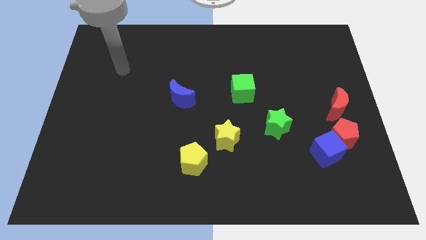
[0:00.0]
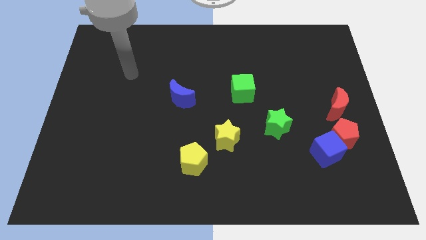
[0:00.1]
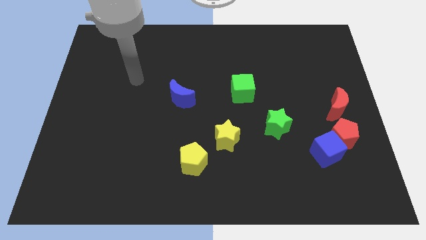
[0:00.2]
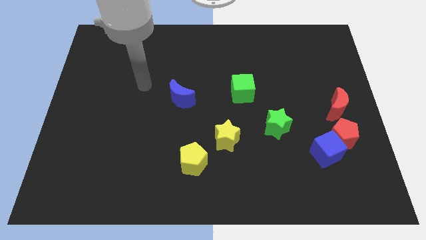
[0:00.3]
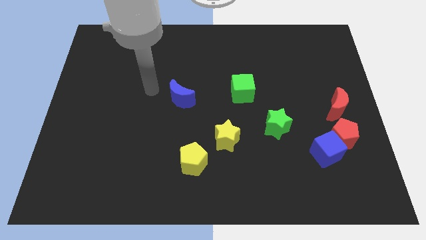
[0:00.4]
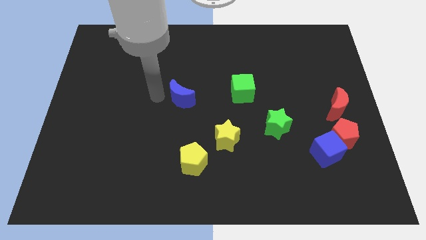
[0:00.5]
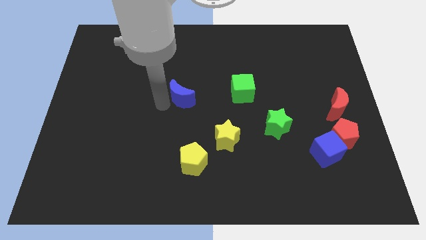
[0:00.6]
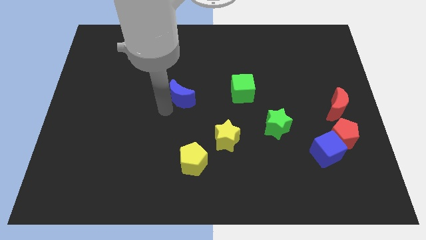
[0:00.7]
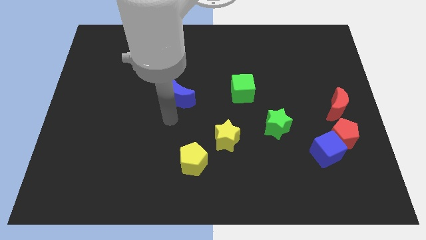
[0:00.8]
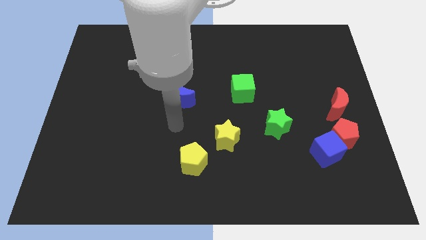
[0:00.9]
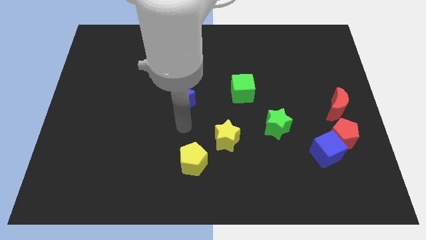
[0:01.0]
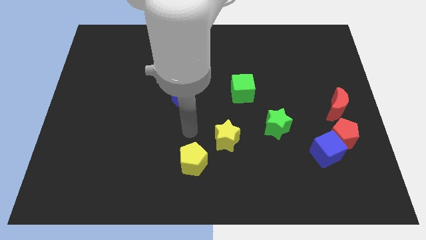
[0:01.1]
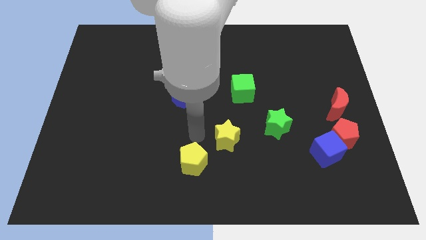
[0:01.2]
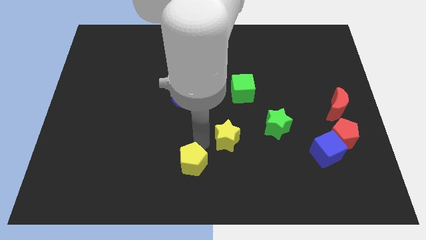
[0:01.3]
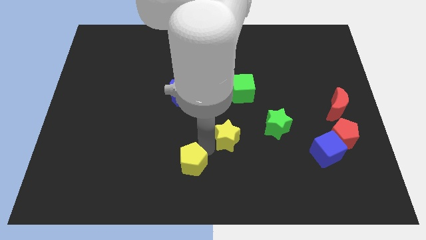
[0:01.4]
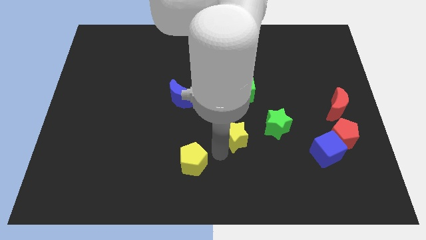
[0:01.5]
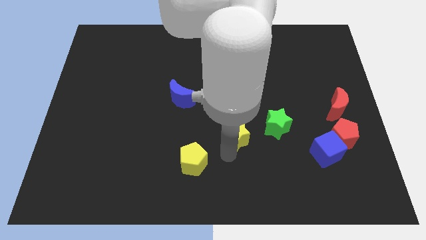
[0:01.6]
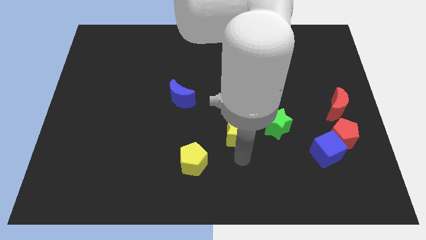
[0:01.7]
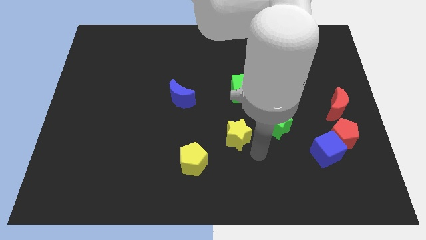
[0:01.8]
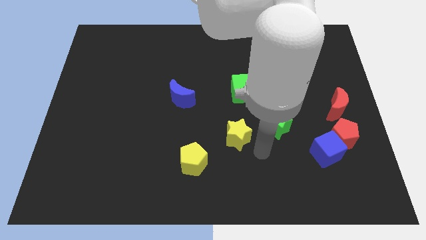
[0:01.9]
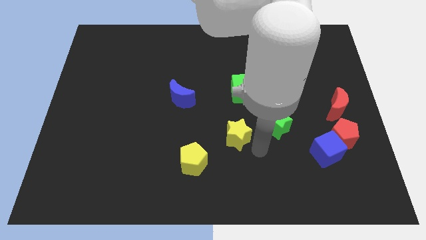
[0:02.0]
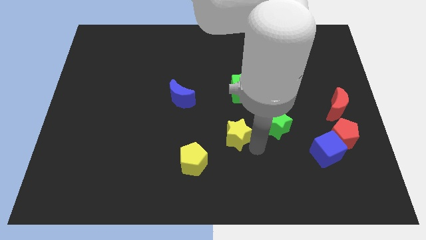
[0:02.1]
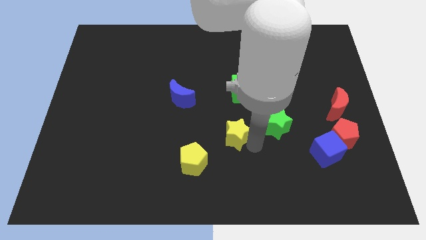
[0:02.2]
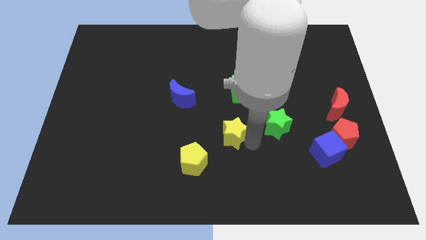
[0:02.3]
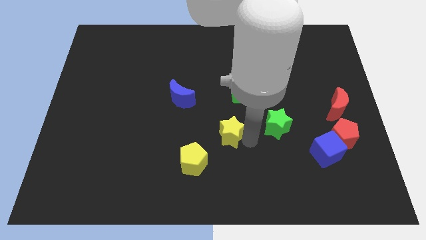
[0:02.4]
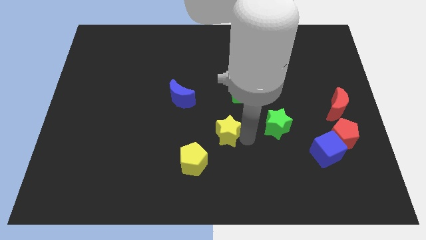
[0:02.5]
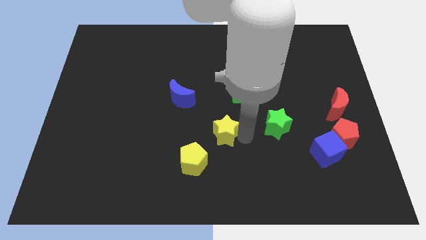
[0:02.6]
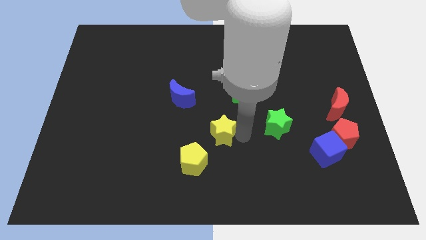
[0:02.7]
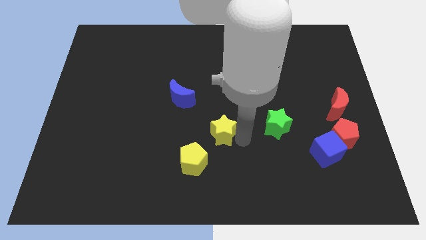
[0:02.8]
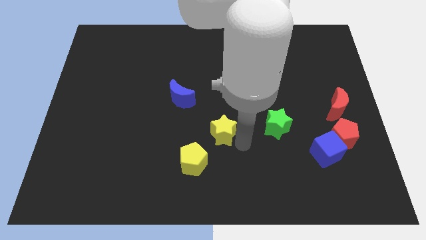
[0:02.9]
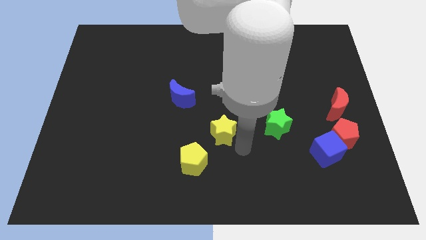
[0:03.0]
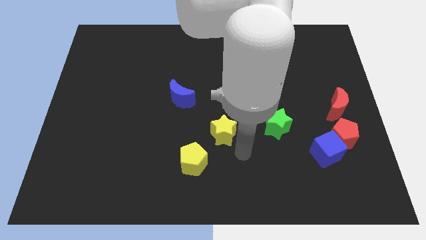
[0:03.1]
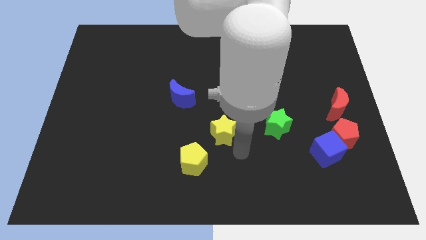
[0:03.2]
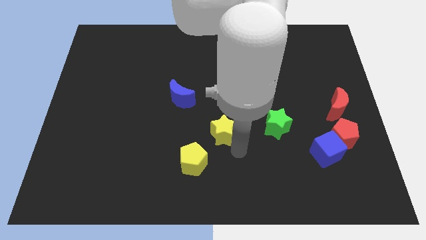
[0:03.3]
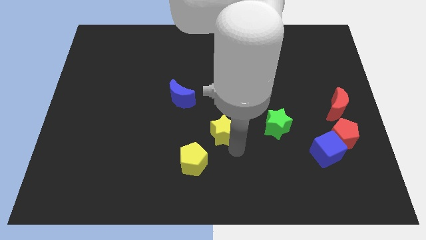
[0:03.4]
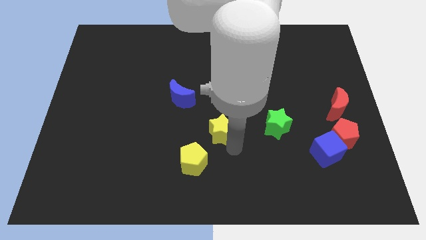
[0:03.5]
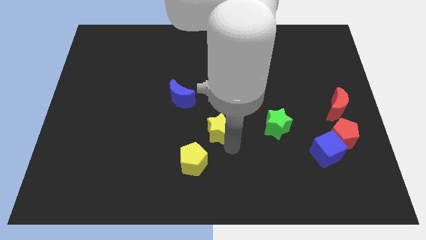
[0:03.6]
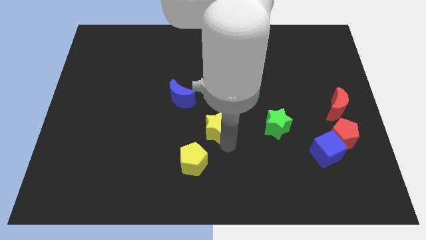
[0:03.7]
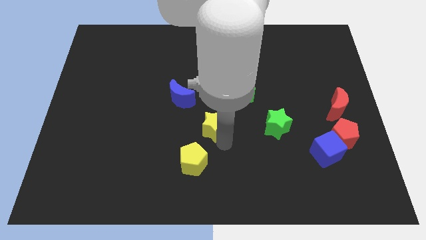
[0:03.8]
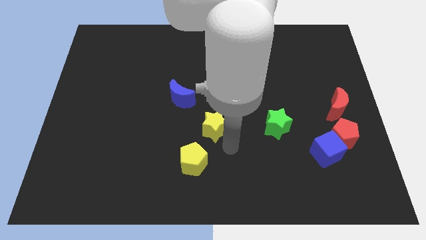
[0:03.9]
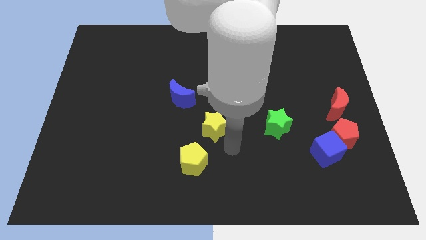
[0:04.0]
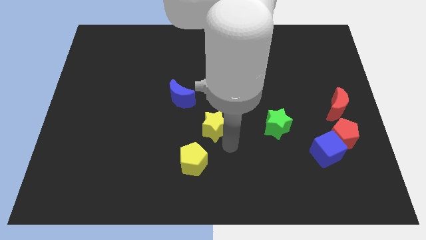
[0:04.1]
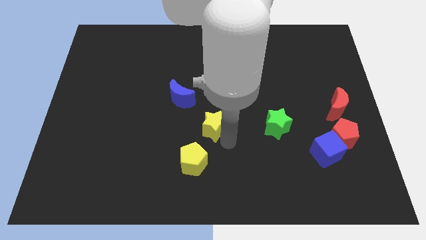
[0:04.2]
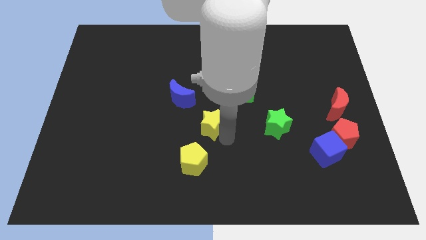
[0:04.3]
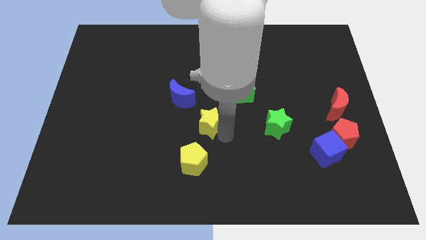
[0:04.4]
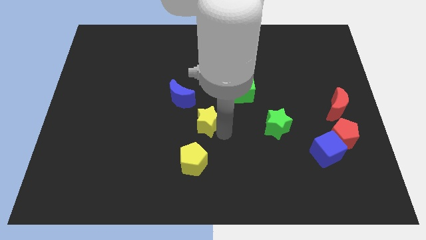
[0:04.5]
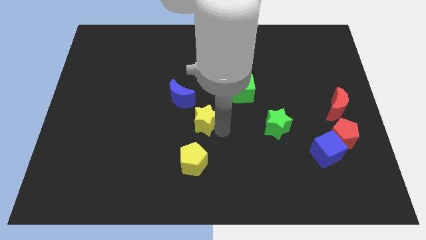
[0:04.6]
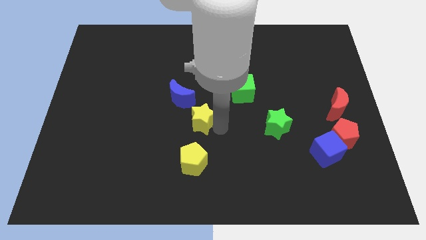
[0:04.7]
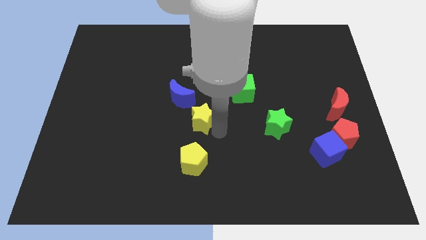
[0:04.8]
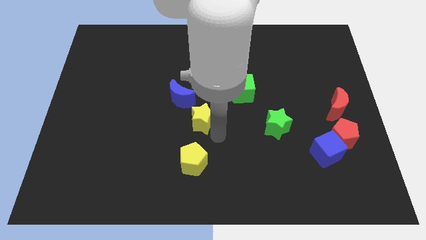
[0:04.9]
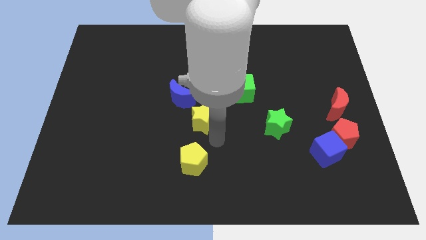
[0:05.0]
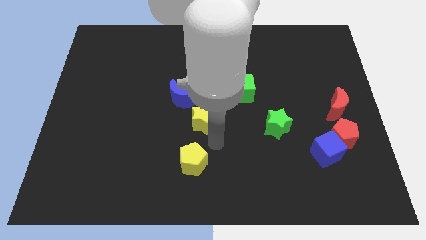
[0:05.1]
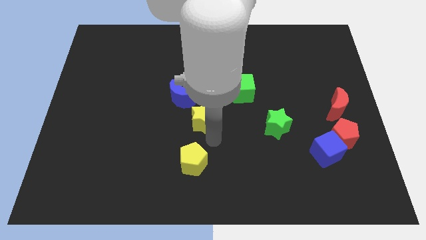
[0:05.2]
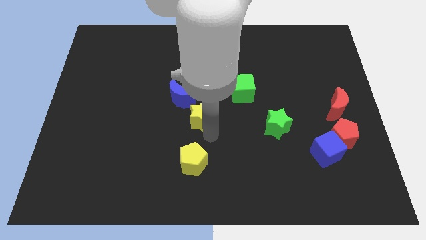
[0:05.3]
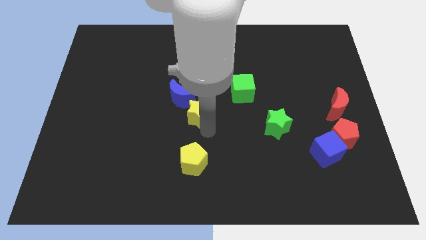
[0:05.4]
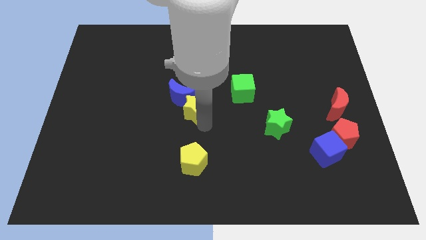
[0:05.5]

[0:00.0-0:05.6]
push the yellow star next to the blue moon
